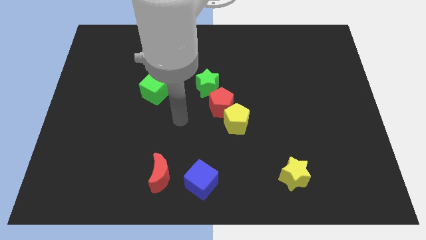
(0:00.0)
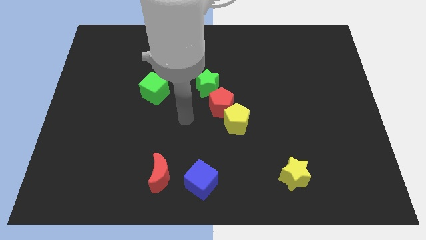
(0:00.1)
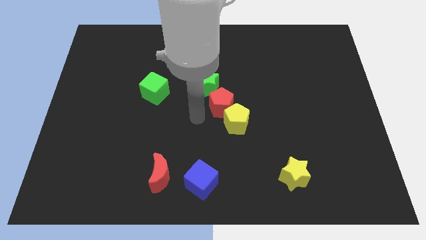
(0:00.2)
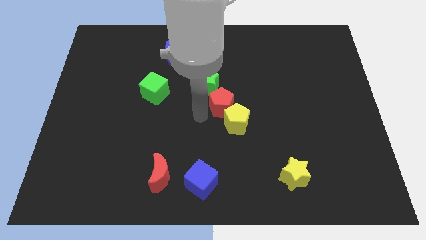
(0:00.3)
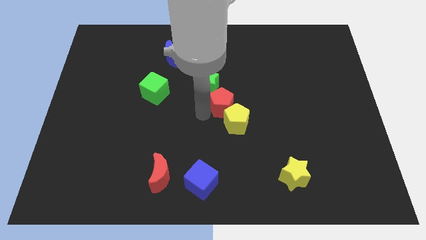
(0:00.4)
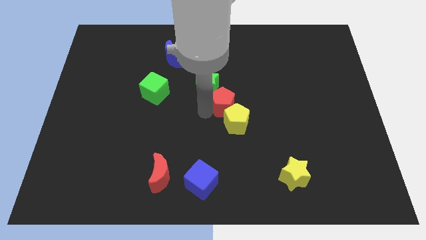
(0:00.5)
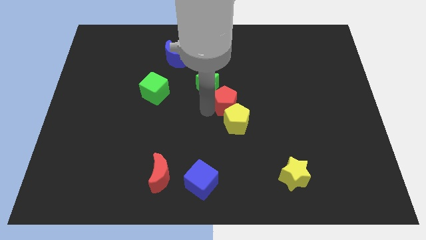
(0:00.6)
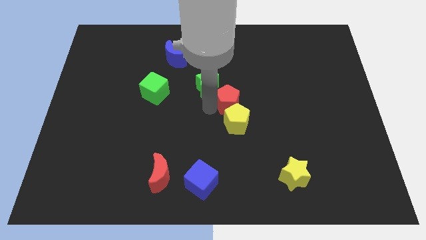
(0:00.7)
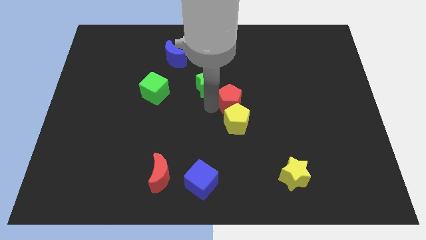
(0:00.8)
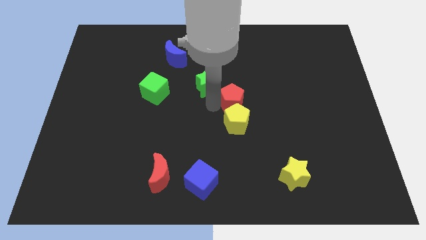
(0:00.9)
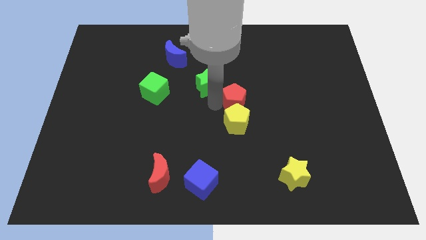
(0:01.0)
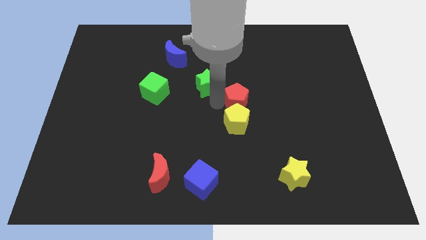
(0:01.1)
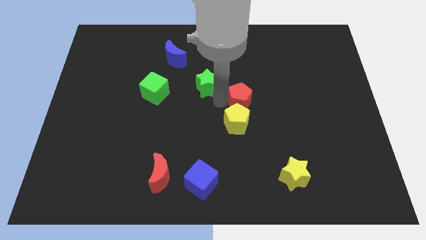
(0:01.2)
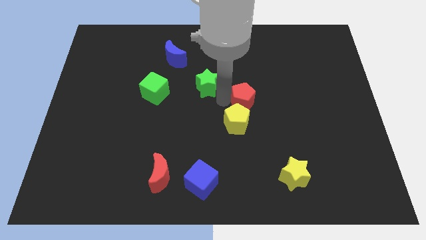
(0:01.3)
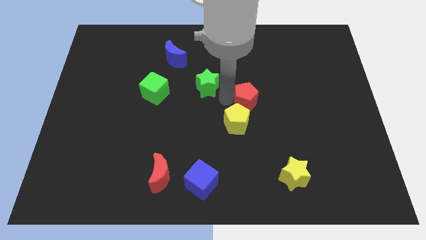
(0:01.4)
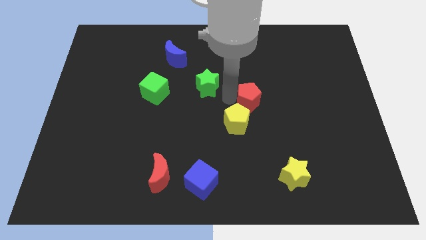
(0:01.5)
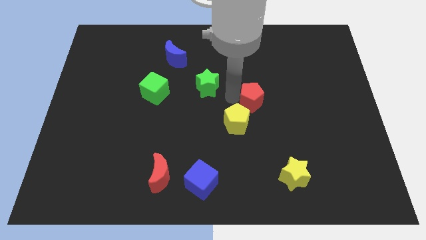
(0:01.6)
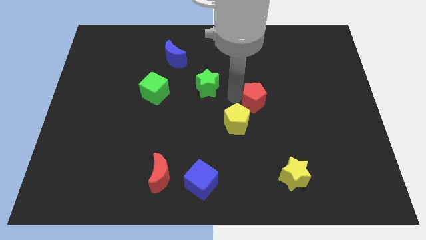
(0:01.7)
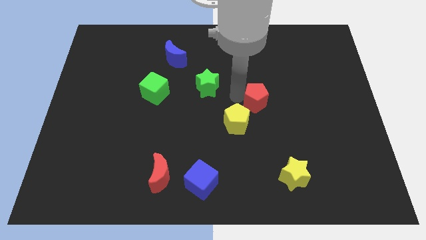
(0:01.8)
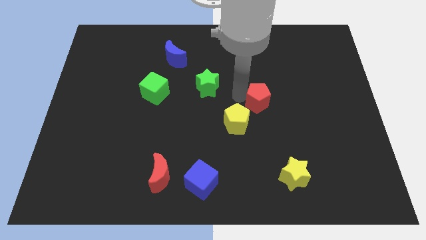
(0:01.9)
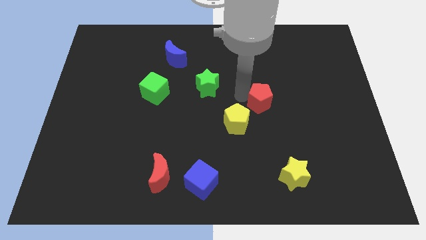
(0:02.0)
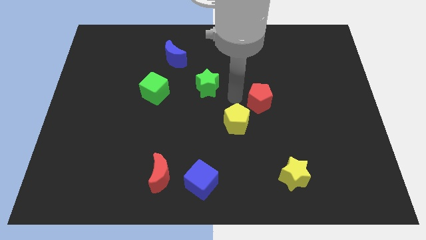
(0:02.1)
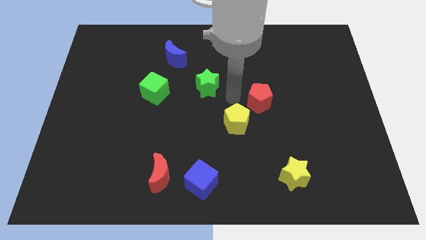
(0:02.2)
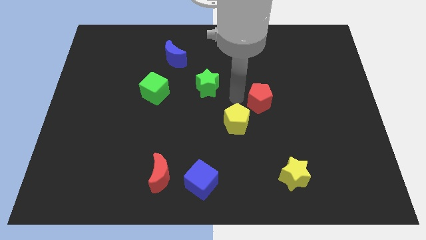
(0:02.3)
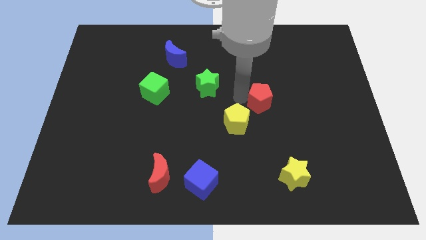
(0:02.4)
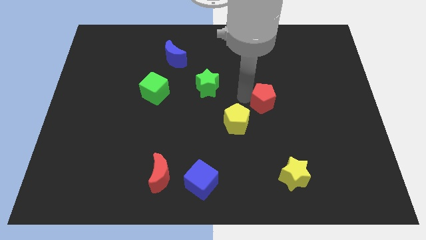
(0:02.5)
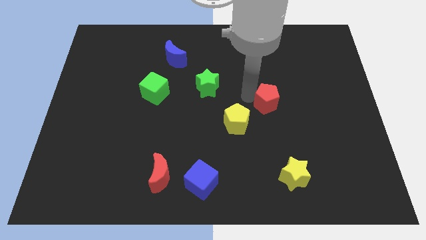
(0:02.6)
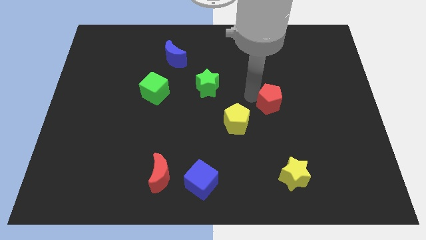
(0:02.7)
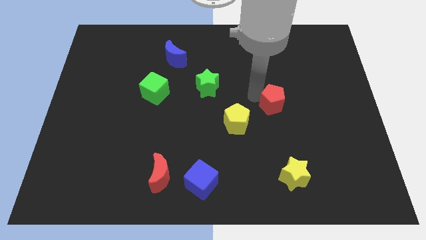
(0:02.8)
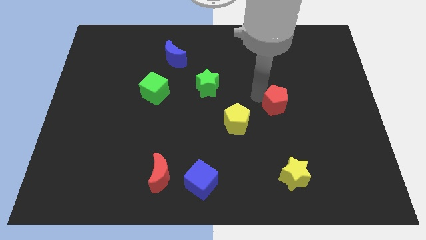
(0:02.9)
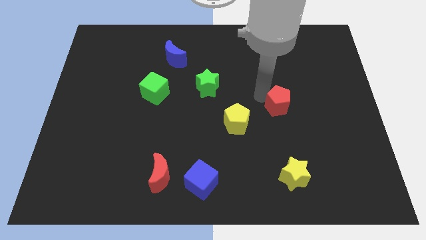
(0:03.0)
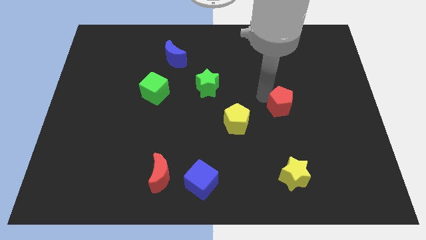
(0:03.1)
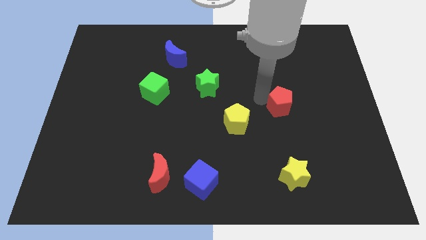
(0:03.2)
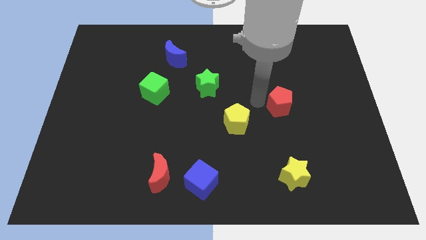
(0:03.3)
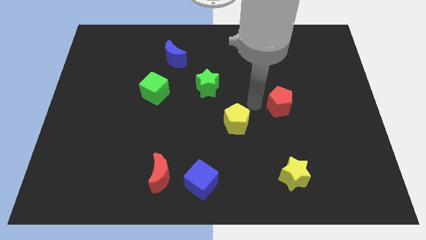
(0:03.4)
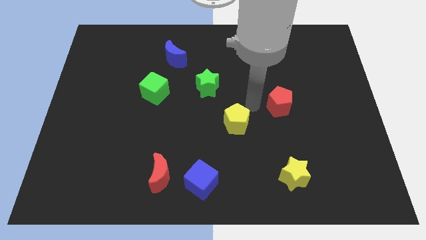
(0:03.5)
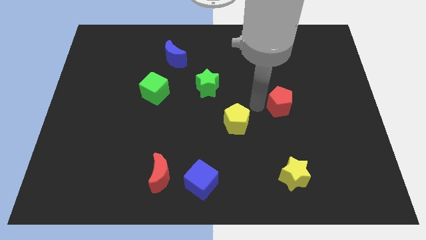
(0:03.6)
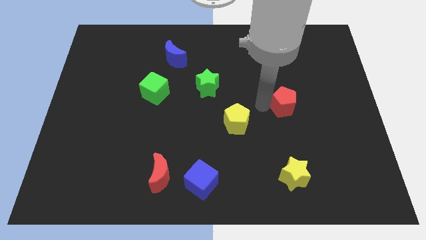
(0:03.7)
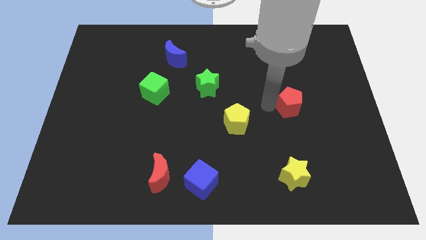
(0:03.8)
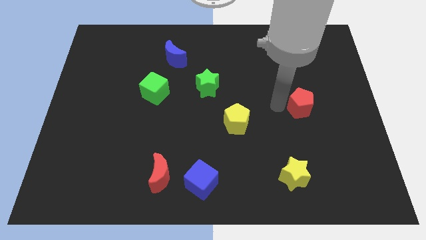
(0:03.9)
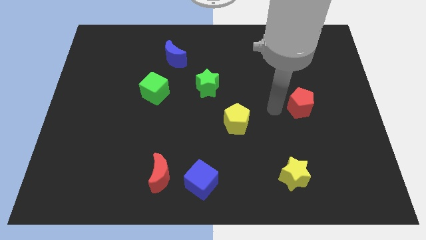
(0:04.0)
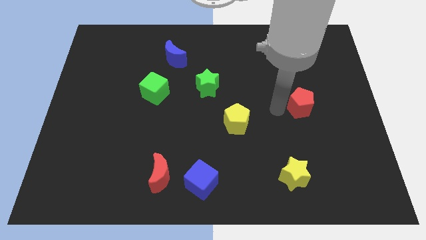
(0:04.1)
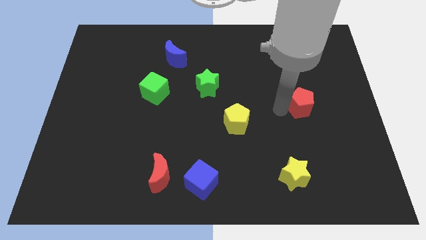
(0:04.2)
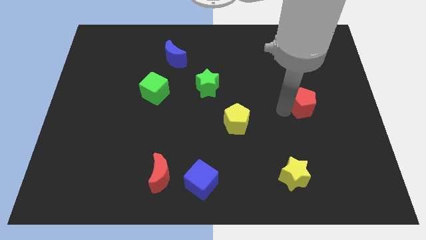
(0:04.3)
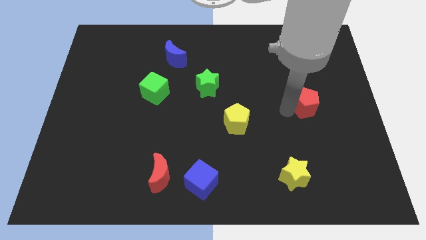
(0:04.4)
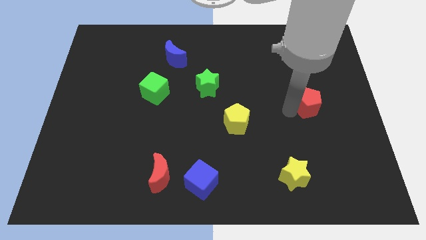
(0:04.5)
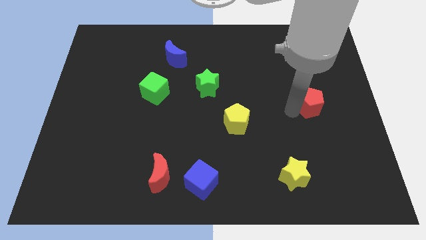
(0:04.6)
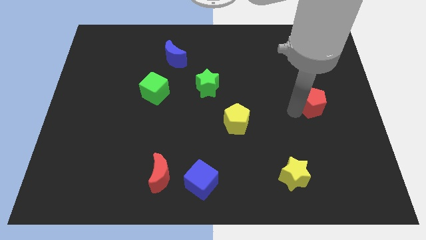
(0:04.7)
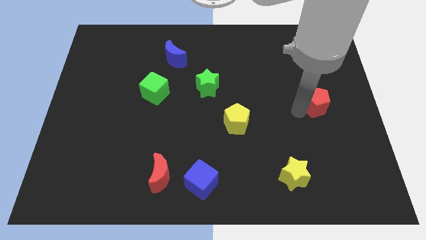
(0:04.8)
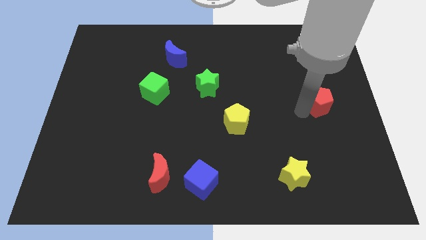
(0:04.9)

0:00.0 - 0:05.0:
slide the red pentagon to the right side

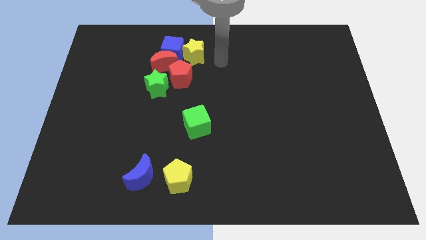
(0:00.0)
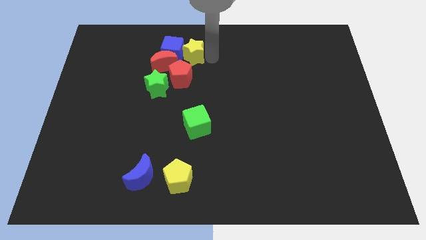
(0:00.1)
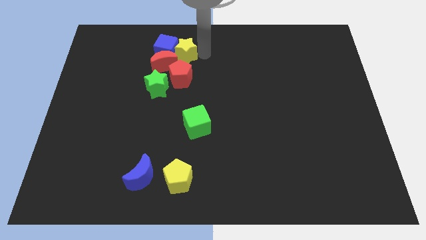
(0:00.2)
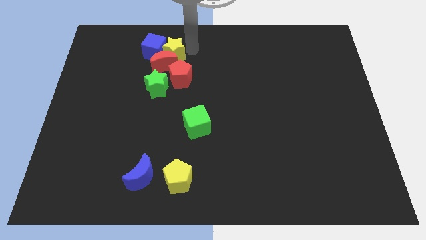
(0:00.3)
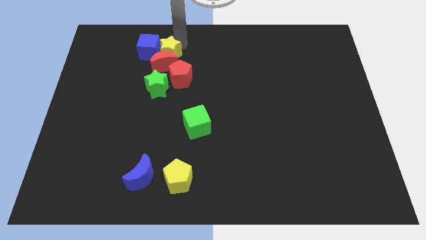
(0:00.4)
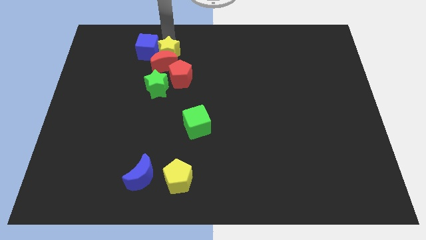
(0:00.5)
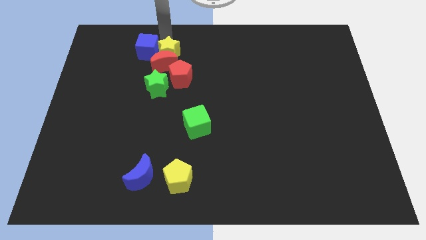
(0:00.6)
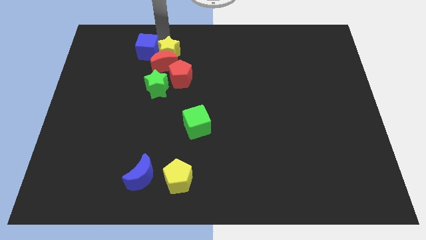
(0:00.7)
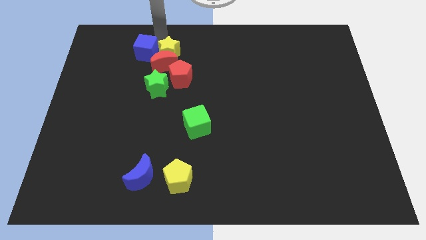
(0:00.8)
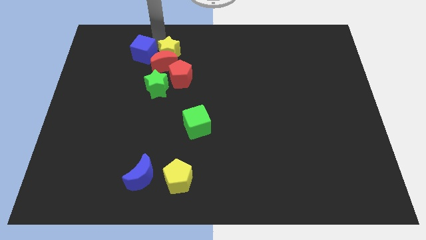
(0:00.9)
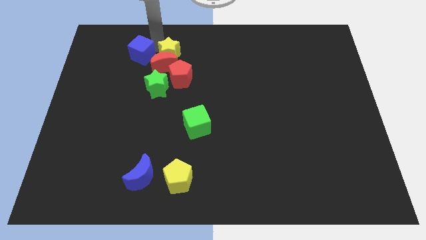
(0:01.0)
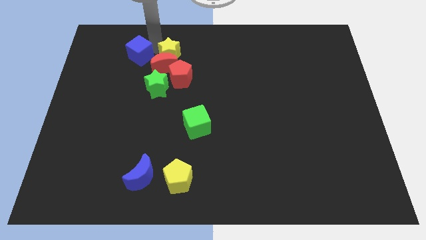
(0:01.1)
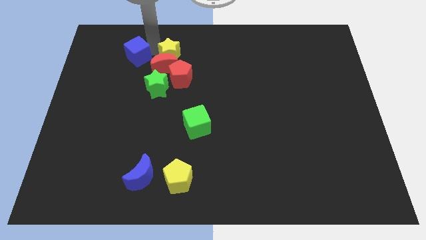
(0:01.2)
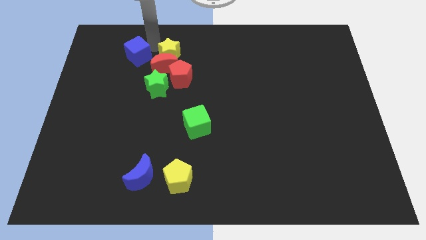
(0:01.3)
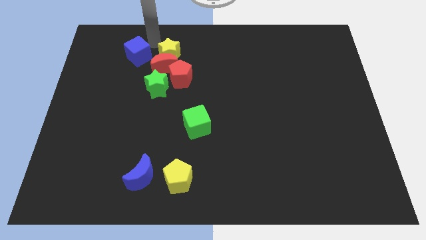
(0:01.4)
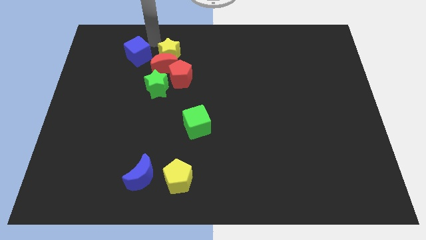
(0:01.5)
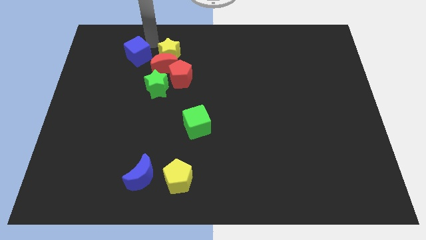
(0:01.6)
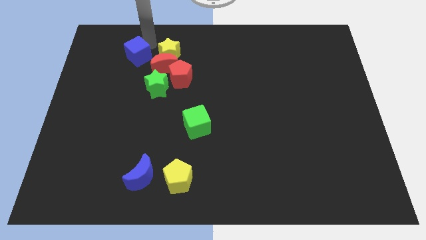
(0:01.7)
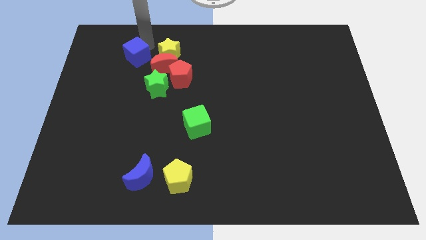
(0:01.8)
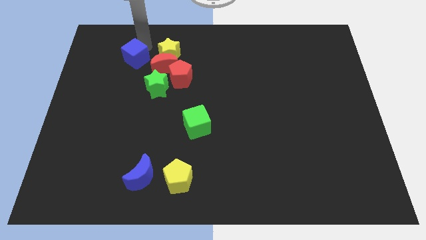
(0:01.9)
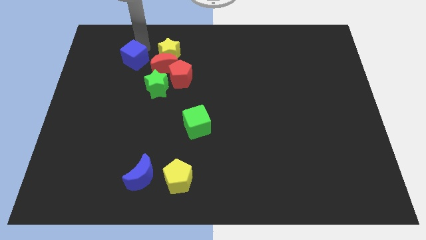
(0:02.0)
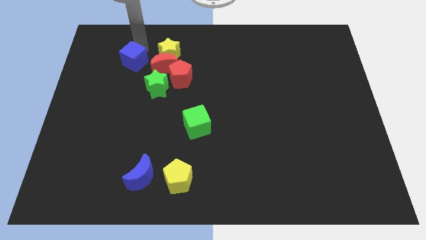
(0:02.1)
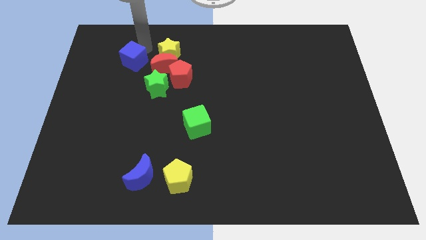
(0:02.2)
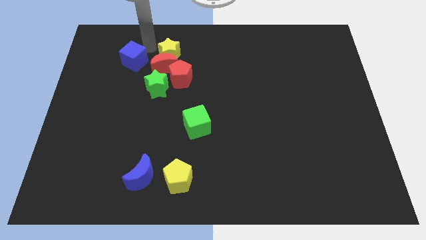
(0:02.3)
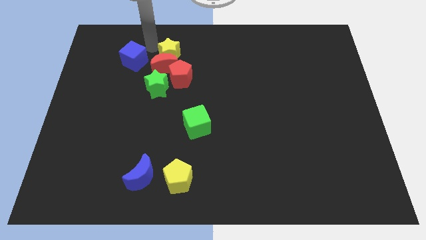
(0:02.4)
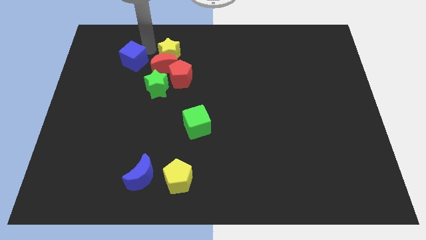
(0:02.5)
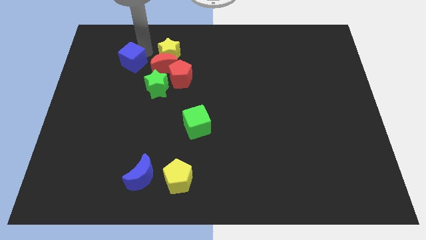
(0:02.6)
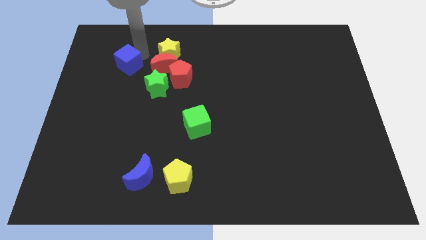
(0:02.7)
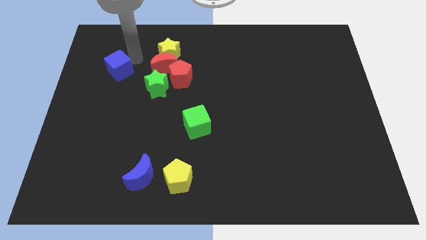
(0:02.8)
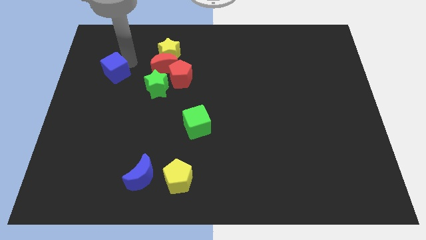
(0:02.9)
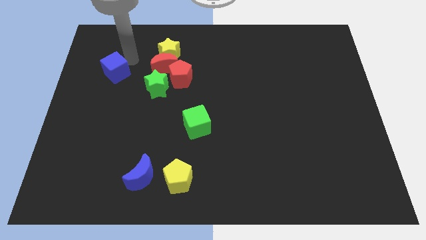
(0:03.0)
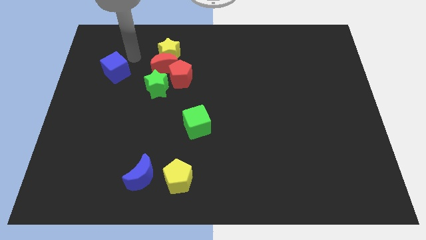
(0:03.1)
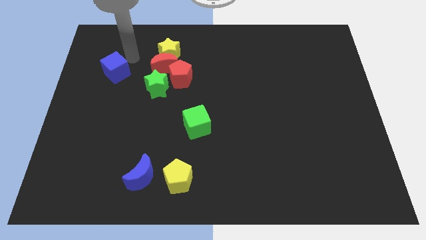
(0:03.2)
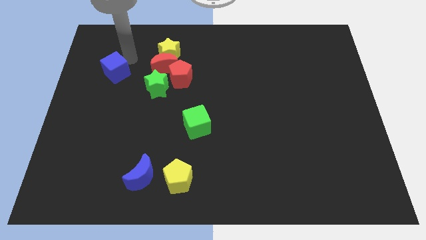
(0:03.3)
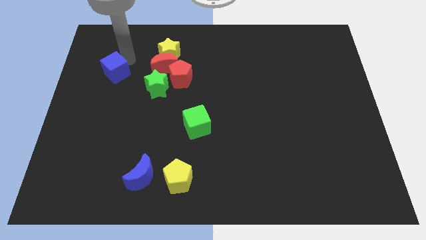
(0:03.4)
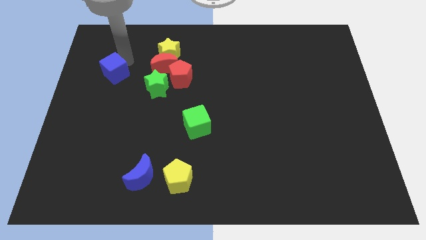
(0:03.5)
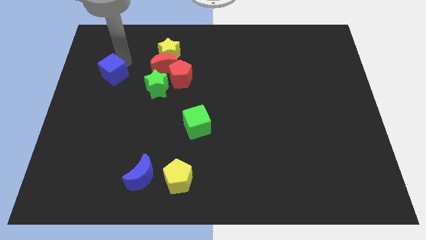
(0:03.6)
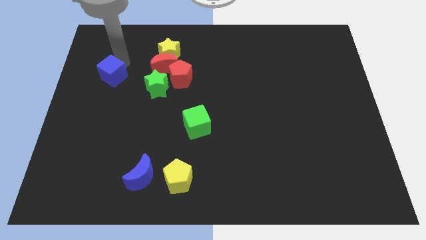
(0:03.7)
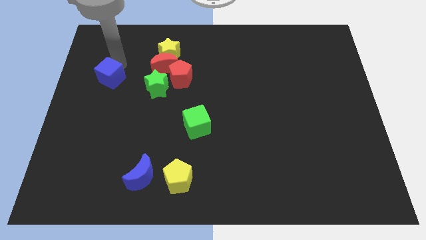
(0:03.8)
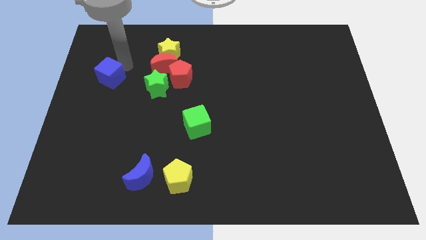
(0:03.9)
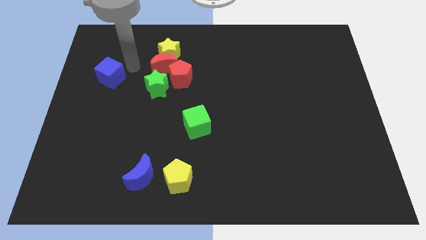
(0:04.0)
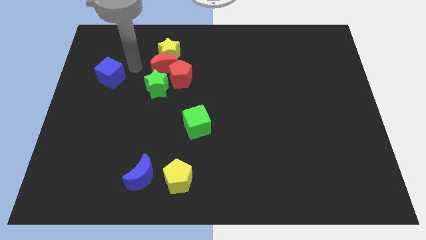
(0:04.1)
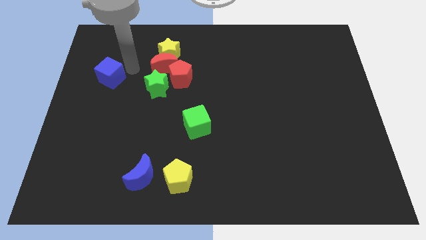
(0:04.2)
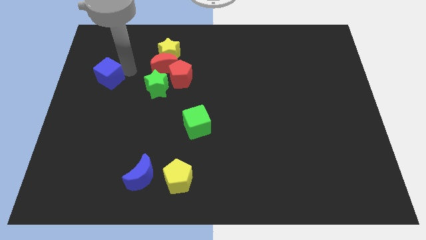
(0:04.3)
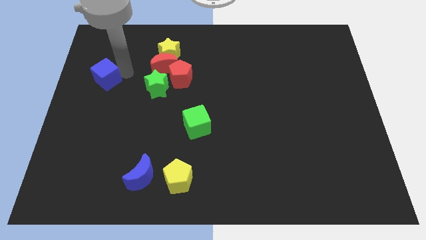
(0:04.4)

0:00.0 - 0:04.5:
put the blue cube to the left side
